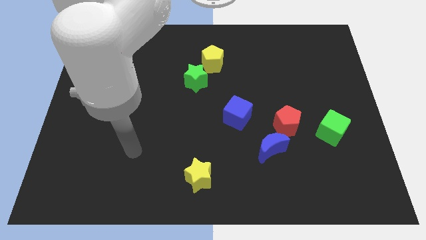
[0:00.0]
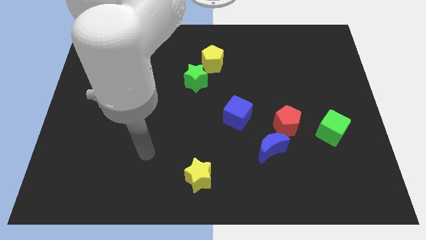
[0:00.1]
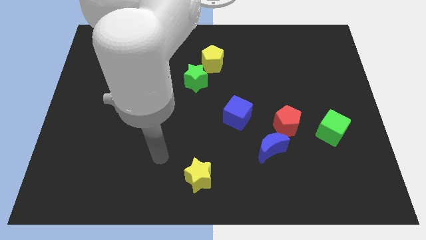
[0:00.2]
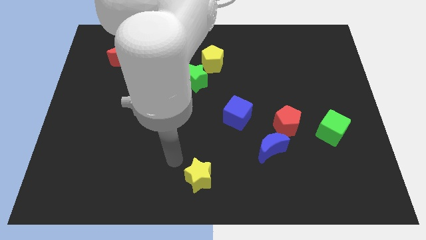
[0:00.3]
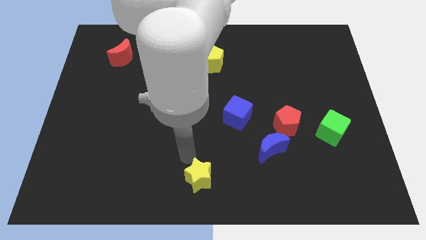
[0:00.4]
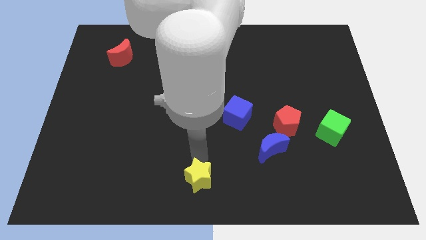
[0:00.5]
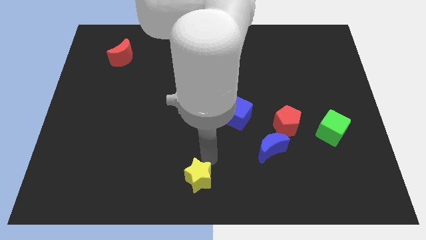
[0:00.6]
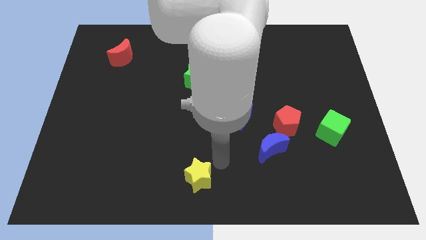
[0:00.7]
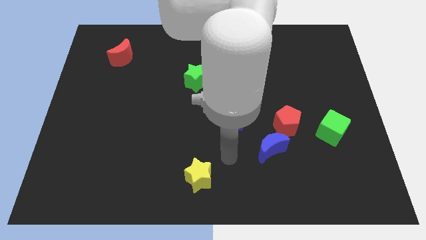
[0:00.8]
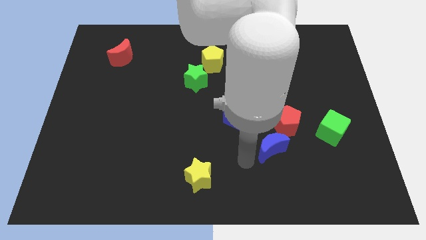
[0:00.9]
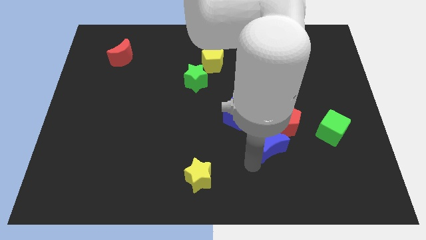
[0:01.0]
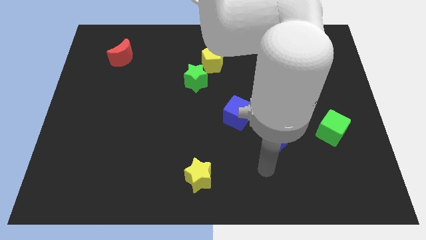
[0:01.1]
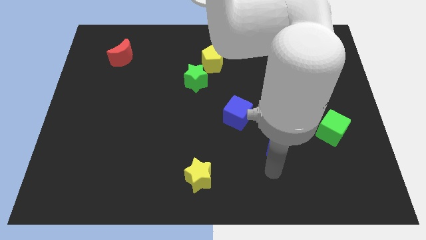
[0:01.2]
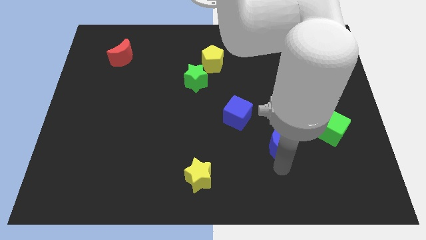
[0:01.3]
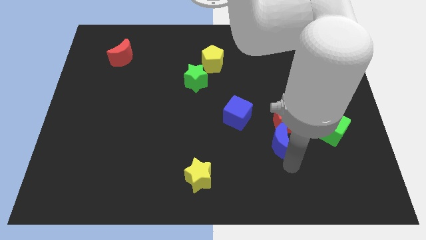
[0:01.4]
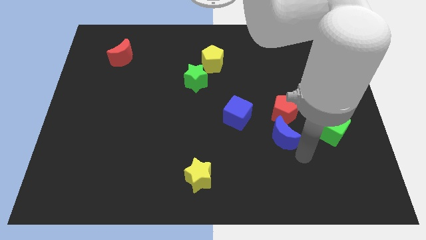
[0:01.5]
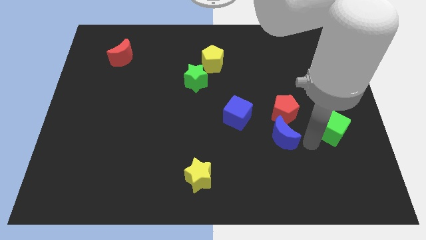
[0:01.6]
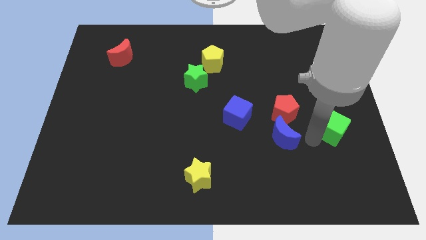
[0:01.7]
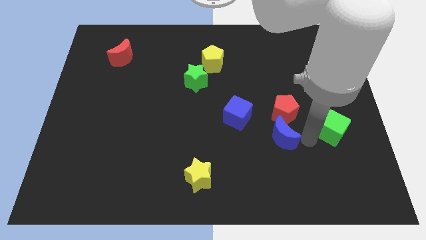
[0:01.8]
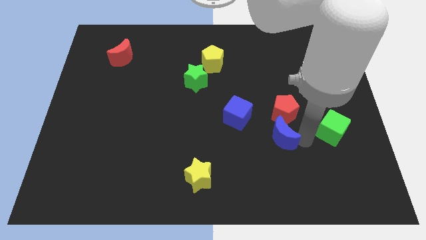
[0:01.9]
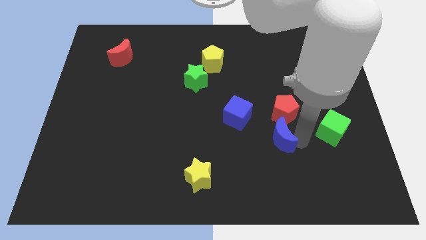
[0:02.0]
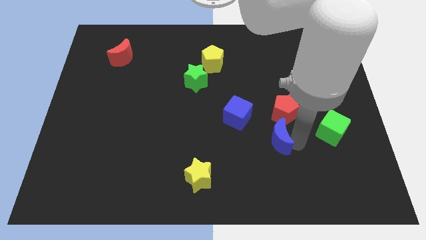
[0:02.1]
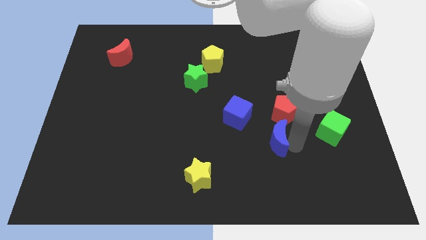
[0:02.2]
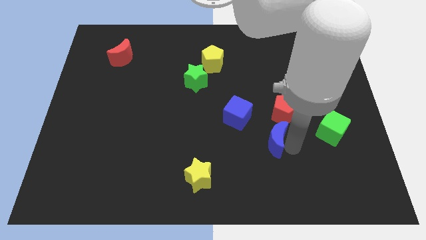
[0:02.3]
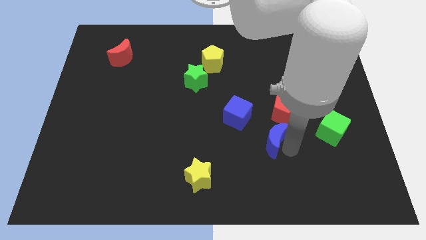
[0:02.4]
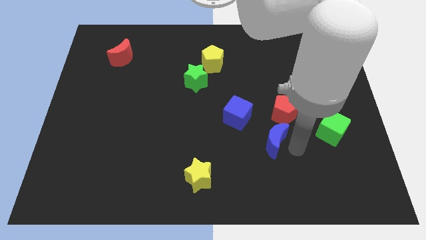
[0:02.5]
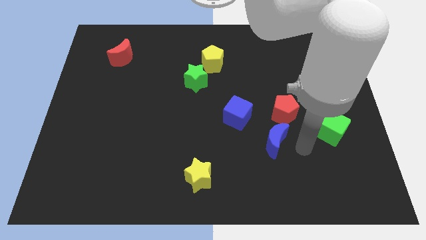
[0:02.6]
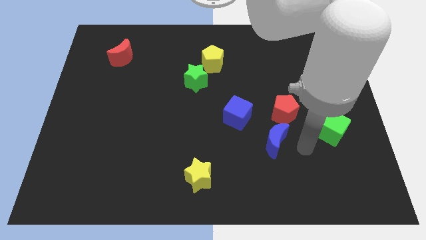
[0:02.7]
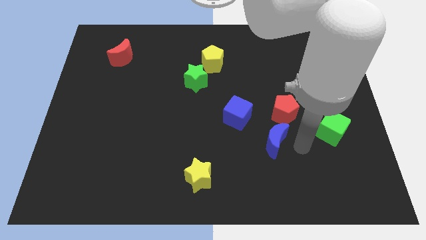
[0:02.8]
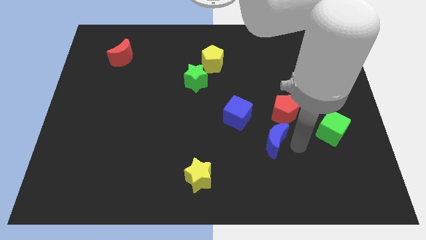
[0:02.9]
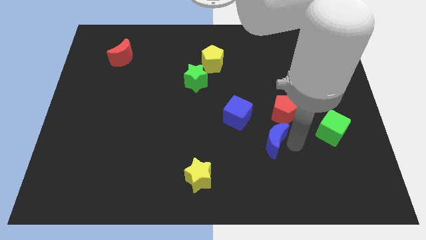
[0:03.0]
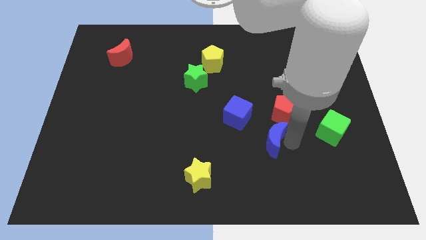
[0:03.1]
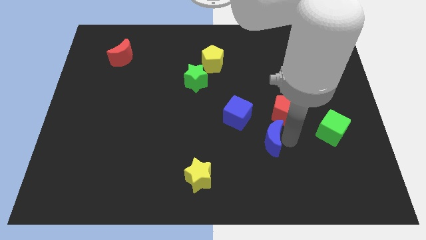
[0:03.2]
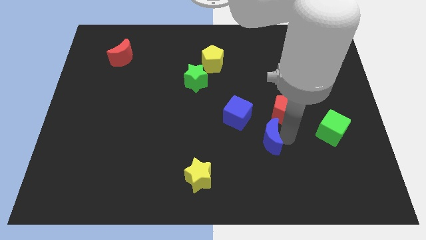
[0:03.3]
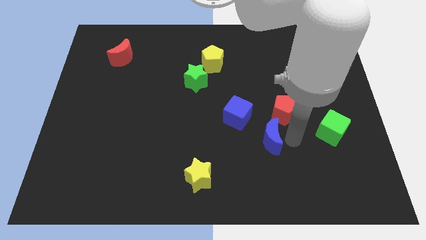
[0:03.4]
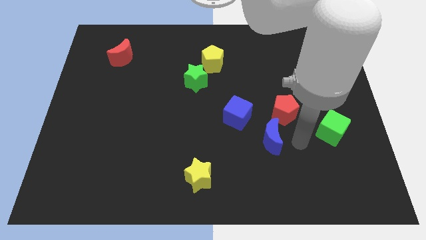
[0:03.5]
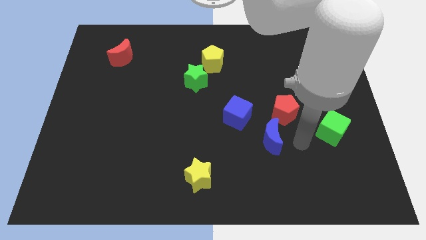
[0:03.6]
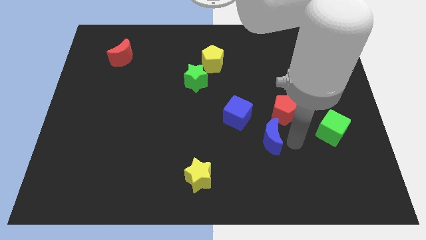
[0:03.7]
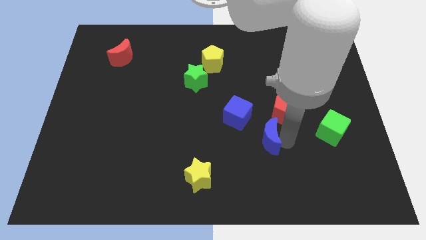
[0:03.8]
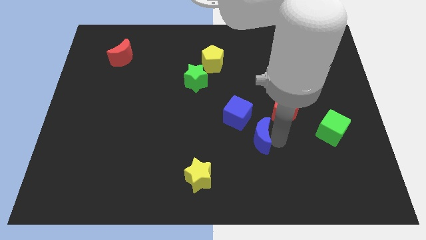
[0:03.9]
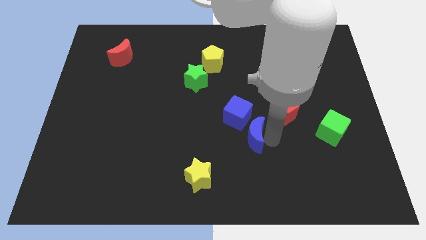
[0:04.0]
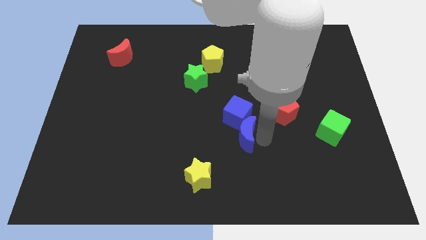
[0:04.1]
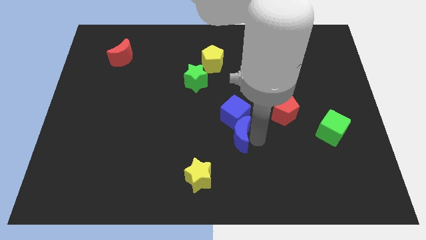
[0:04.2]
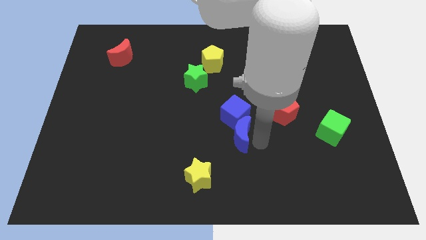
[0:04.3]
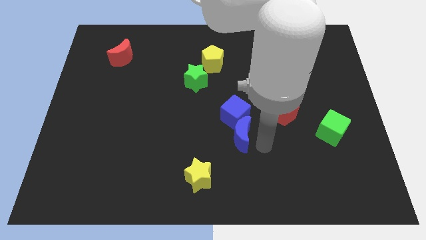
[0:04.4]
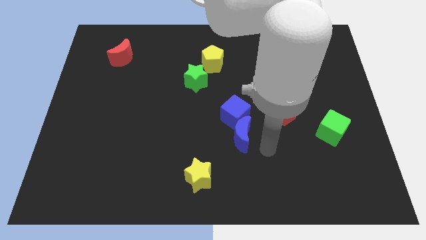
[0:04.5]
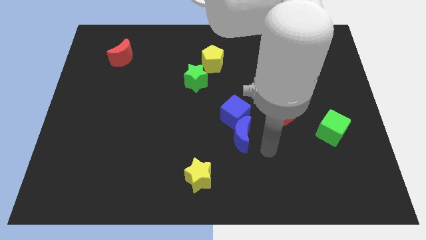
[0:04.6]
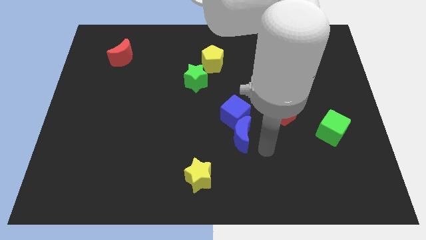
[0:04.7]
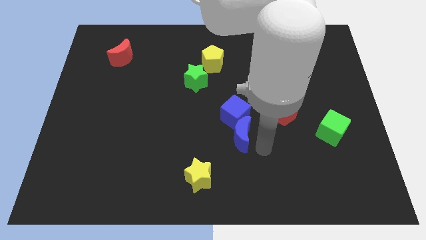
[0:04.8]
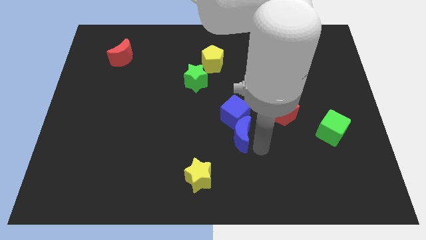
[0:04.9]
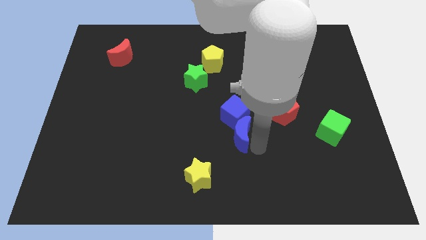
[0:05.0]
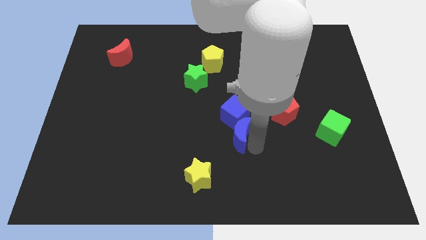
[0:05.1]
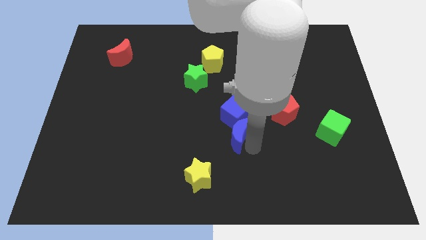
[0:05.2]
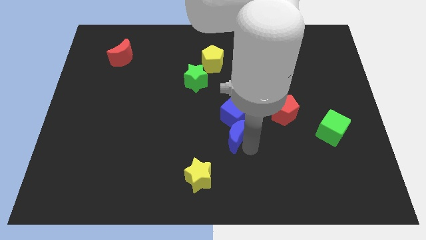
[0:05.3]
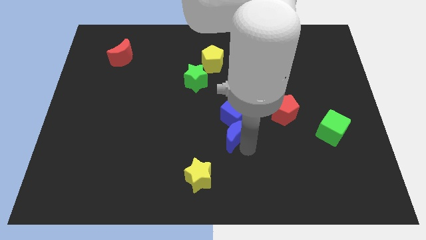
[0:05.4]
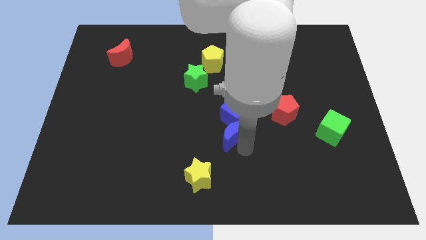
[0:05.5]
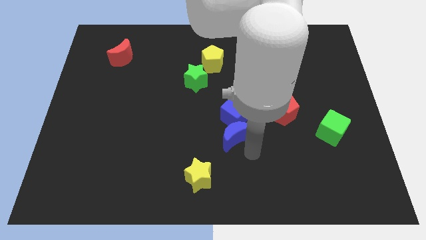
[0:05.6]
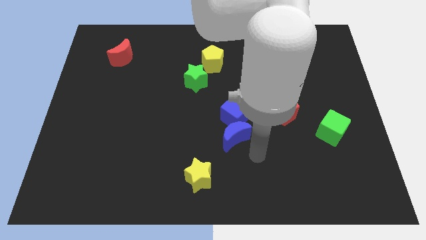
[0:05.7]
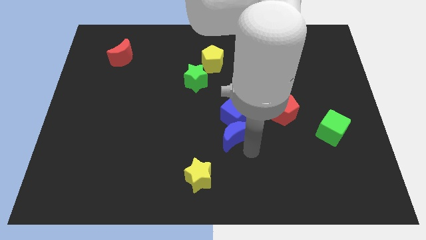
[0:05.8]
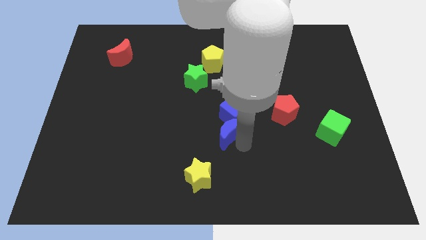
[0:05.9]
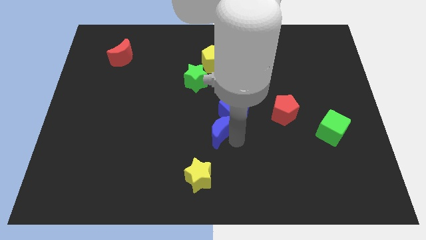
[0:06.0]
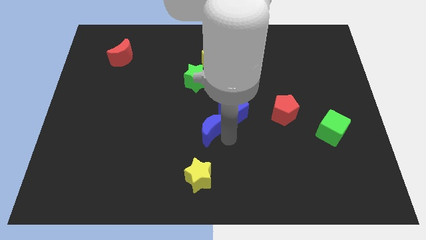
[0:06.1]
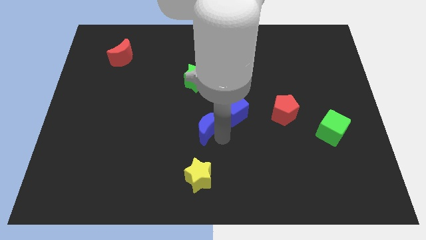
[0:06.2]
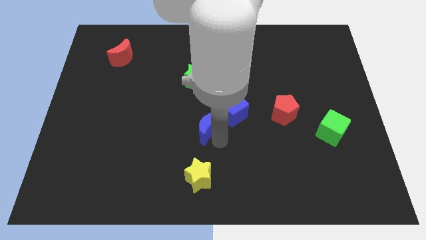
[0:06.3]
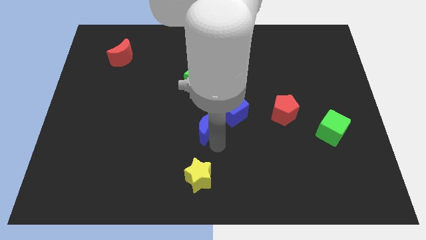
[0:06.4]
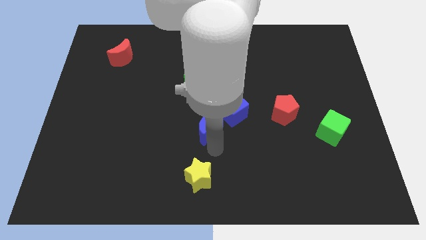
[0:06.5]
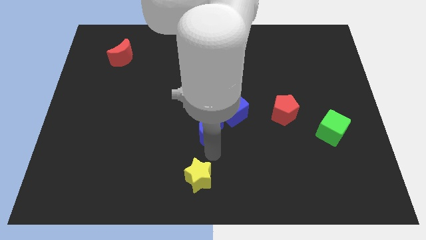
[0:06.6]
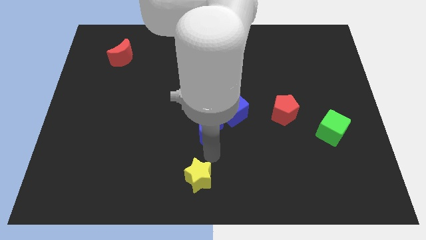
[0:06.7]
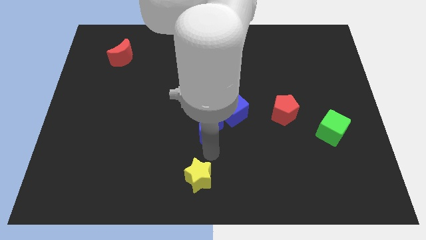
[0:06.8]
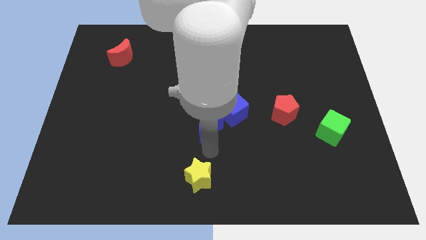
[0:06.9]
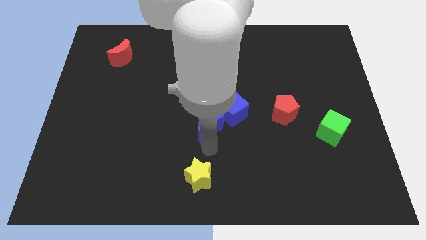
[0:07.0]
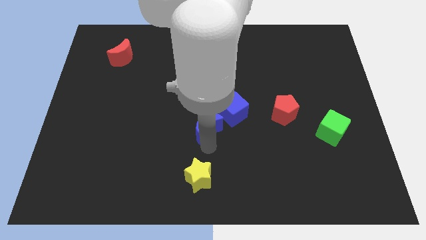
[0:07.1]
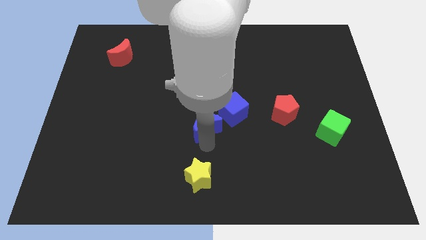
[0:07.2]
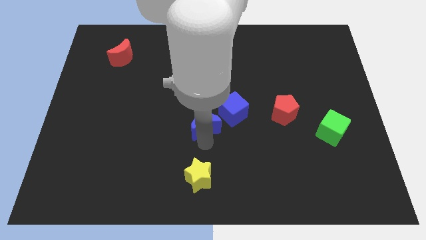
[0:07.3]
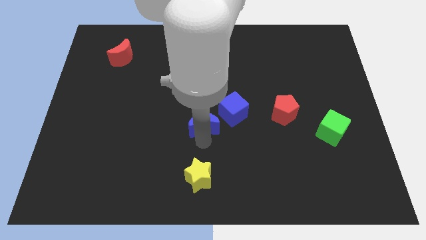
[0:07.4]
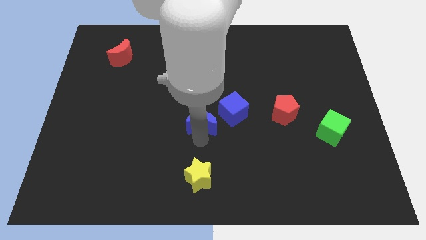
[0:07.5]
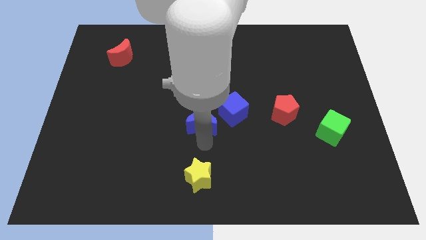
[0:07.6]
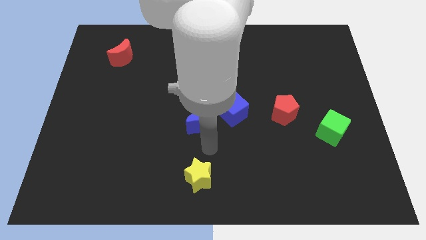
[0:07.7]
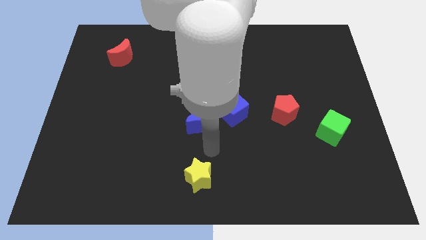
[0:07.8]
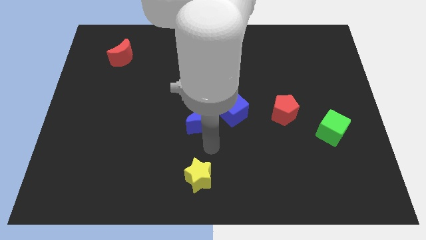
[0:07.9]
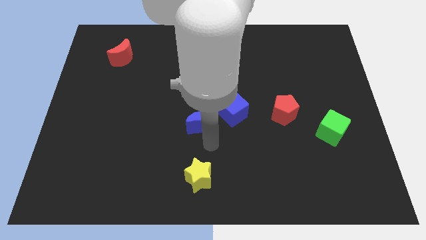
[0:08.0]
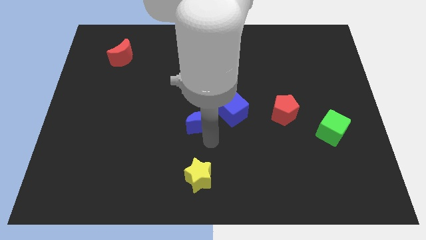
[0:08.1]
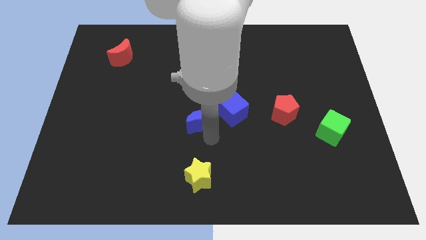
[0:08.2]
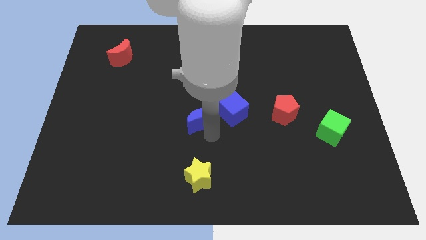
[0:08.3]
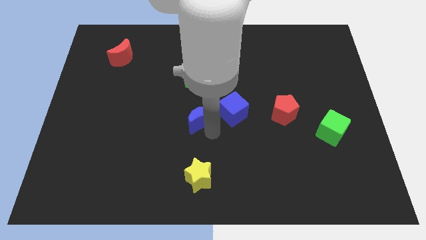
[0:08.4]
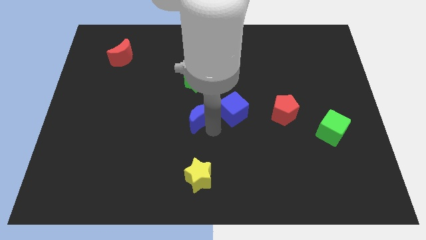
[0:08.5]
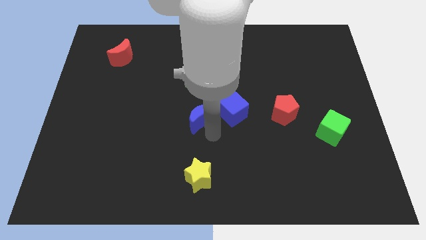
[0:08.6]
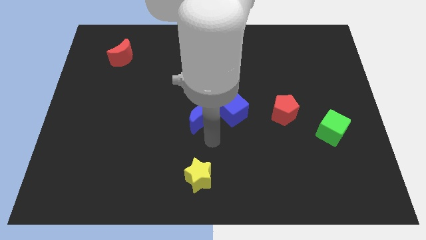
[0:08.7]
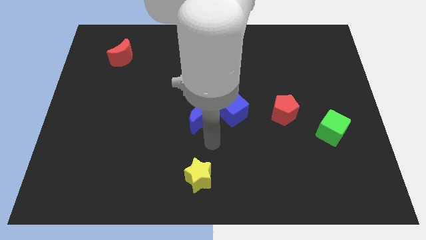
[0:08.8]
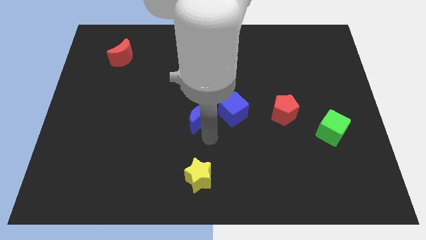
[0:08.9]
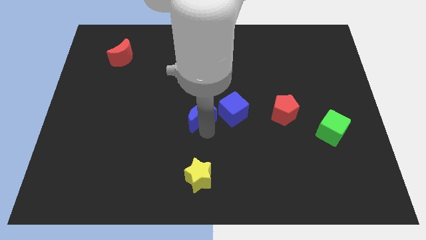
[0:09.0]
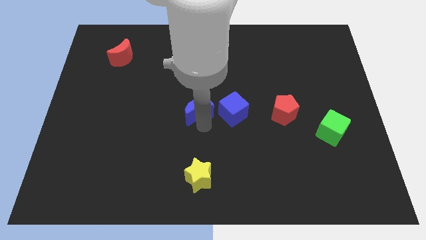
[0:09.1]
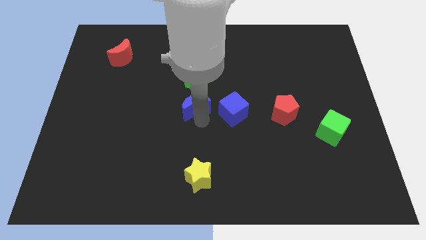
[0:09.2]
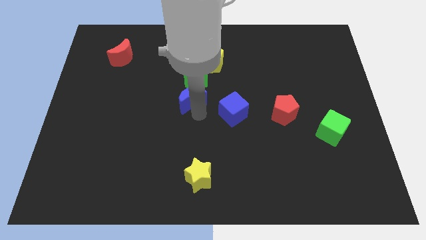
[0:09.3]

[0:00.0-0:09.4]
slide the blue moon up and left
